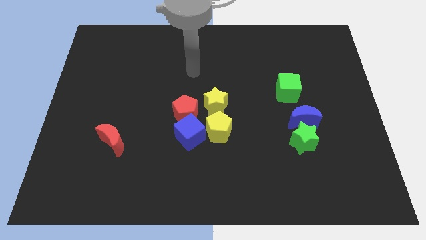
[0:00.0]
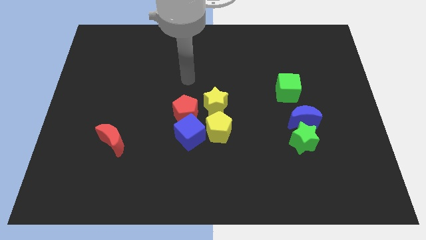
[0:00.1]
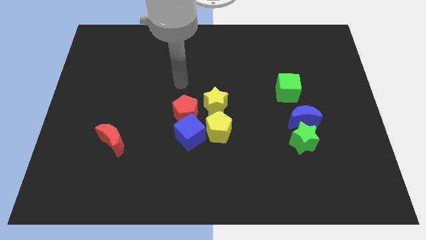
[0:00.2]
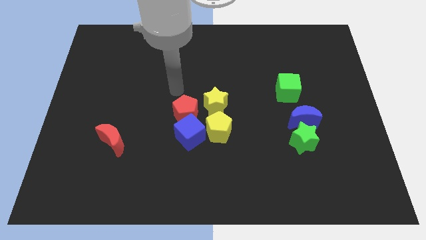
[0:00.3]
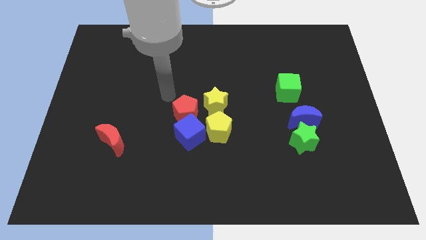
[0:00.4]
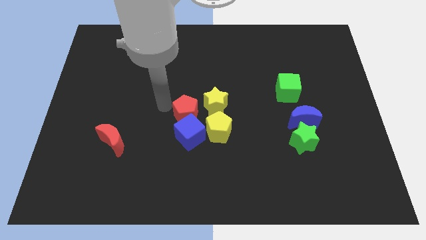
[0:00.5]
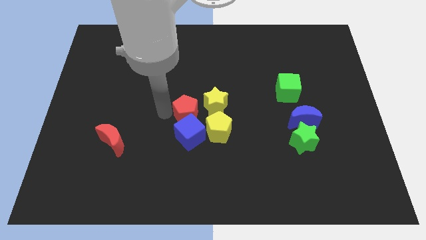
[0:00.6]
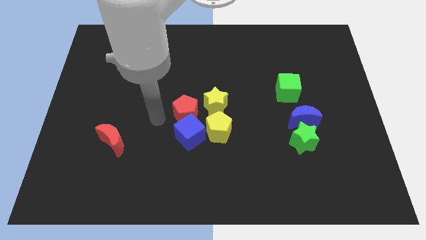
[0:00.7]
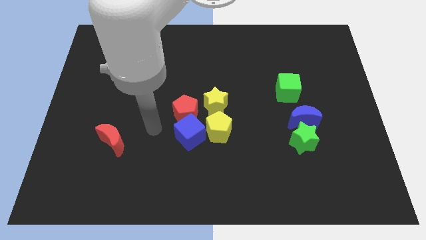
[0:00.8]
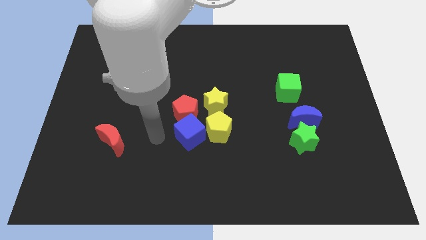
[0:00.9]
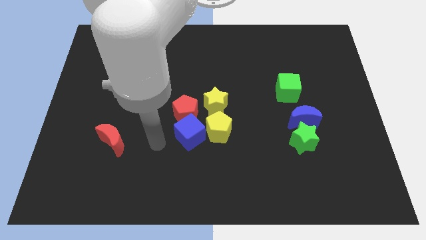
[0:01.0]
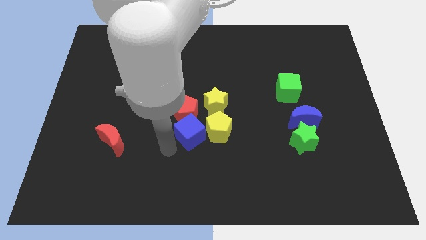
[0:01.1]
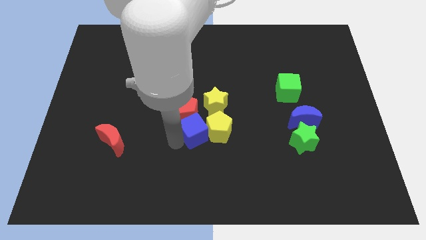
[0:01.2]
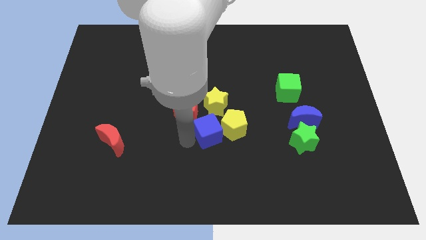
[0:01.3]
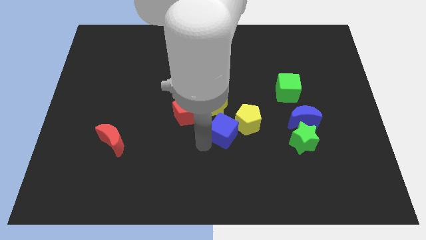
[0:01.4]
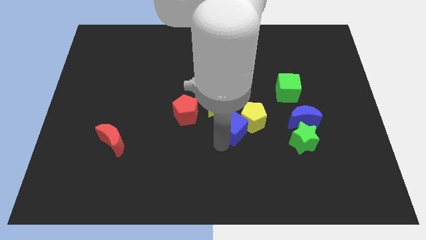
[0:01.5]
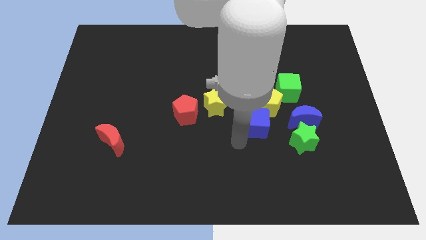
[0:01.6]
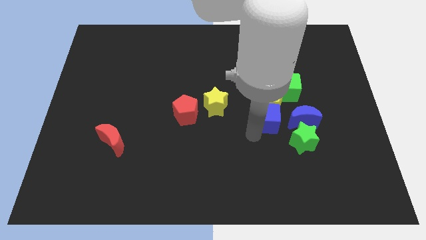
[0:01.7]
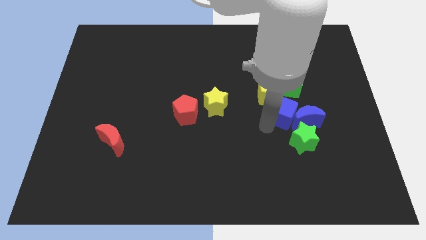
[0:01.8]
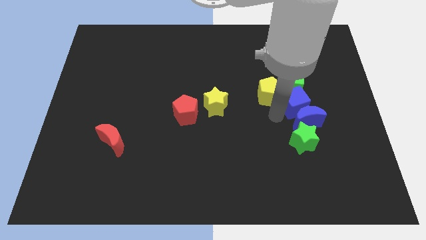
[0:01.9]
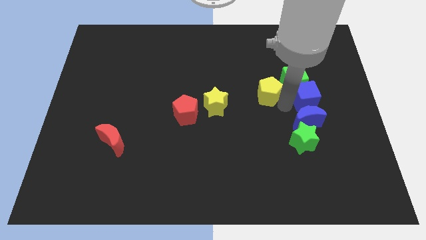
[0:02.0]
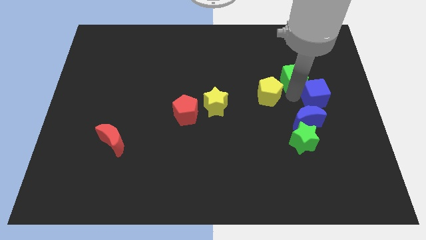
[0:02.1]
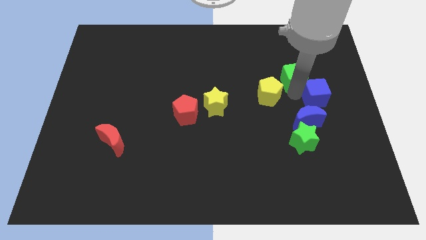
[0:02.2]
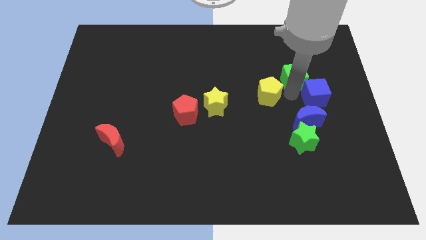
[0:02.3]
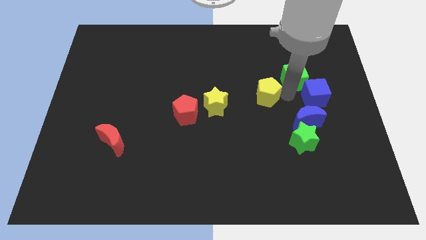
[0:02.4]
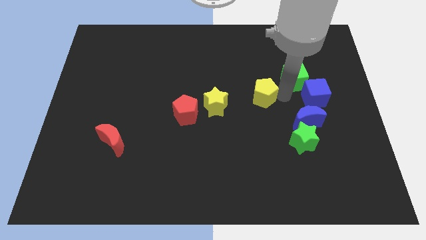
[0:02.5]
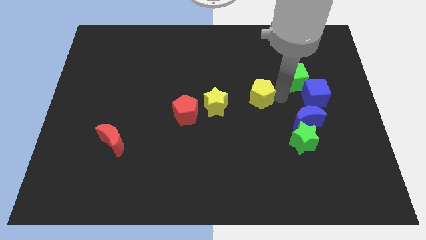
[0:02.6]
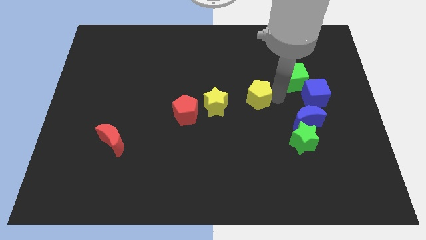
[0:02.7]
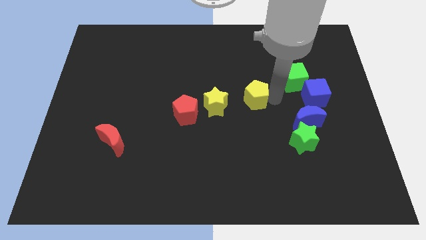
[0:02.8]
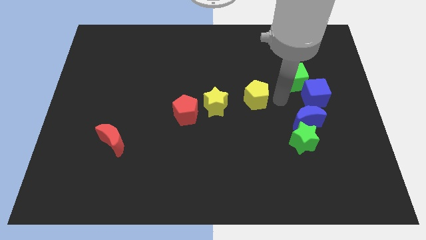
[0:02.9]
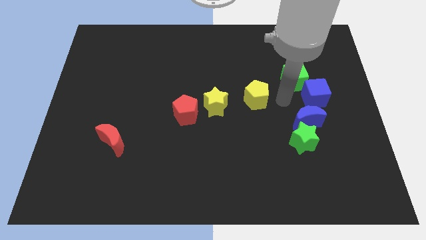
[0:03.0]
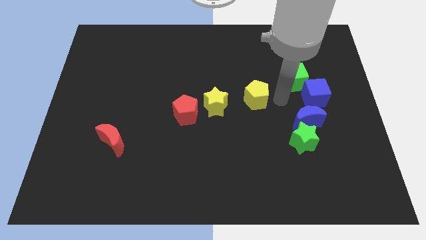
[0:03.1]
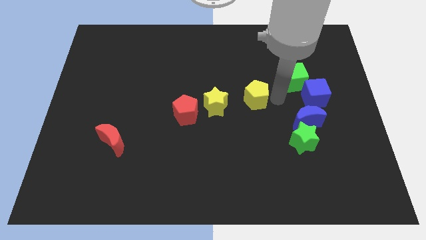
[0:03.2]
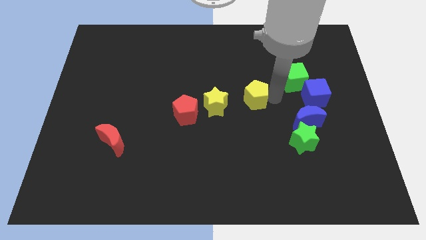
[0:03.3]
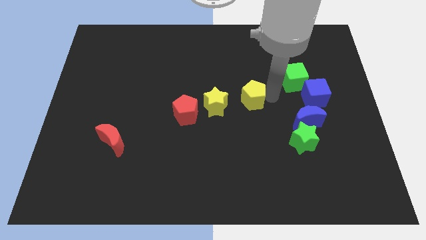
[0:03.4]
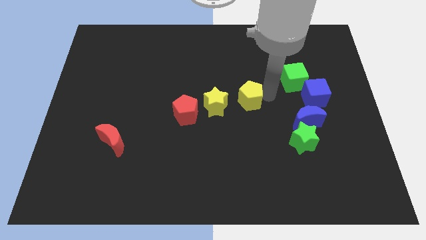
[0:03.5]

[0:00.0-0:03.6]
slightly slide the yellow pentagon up

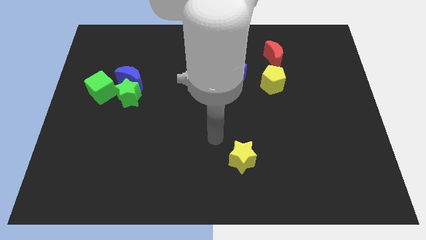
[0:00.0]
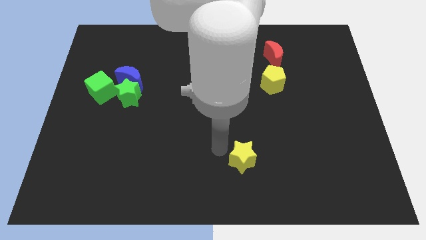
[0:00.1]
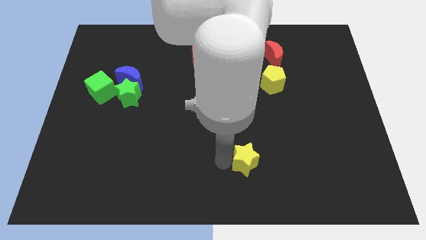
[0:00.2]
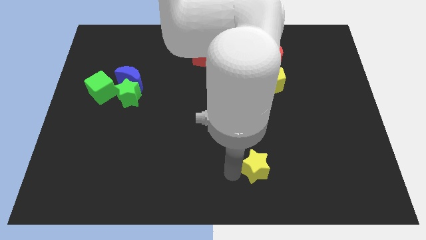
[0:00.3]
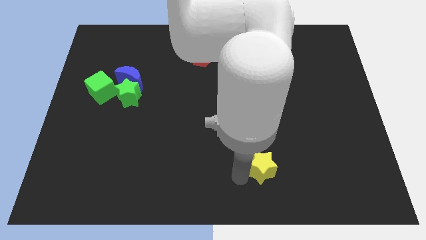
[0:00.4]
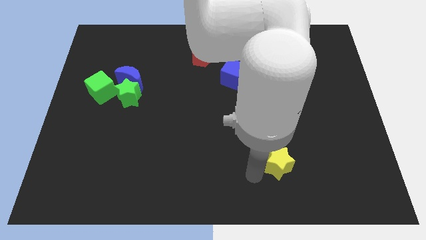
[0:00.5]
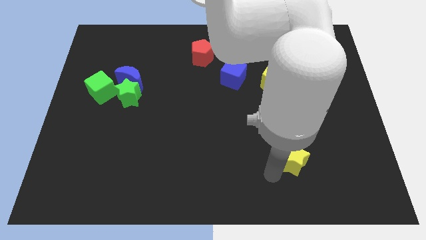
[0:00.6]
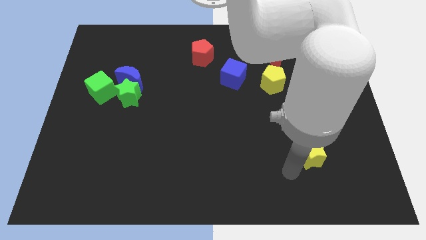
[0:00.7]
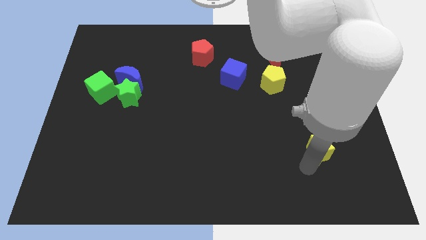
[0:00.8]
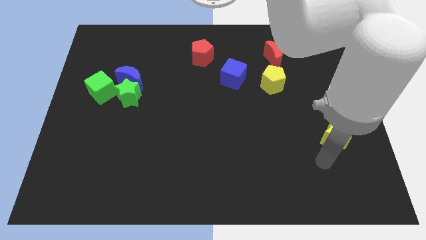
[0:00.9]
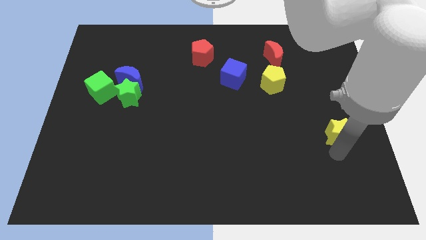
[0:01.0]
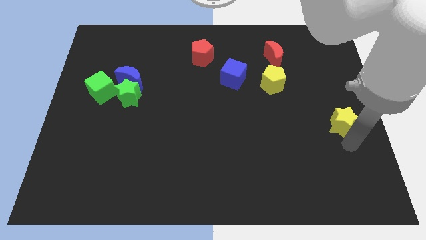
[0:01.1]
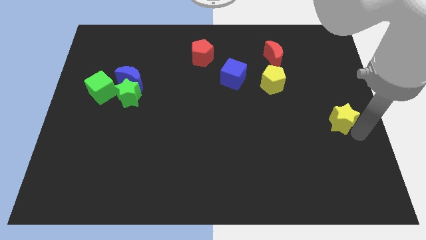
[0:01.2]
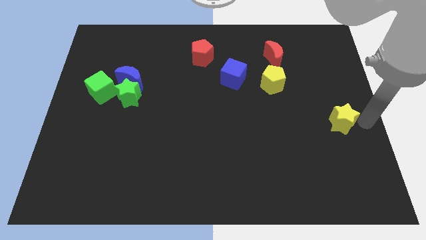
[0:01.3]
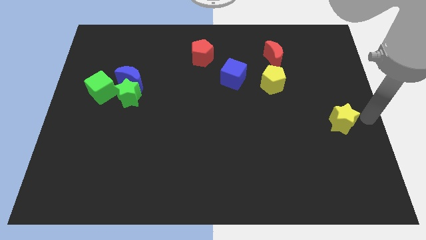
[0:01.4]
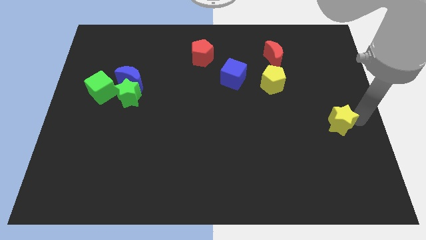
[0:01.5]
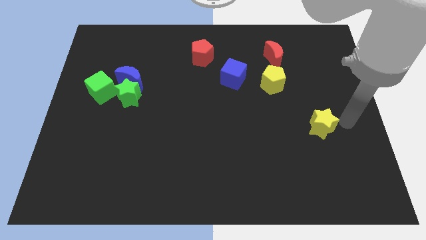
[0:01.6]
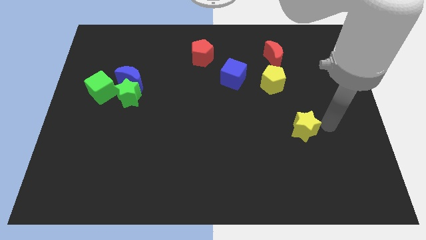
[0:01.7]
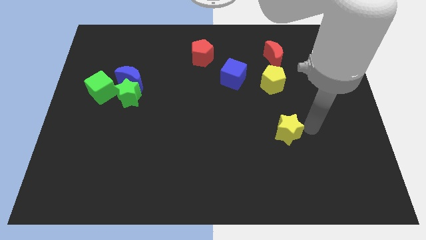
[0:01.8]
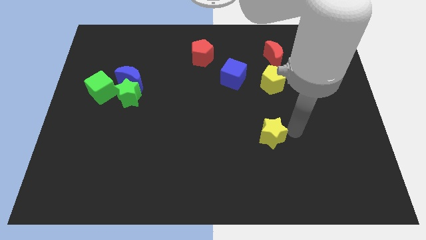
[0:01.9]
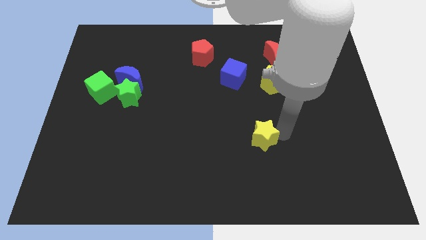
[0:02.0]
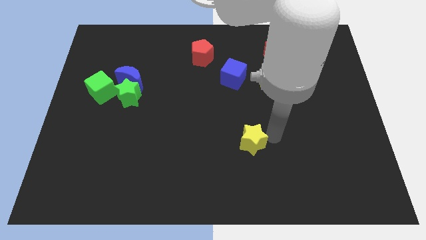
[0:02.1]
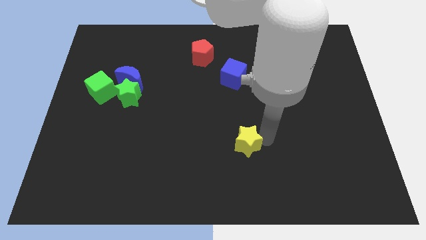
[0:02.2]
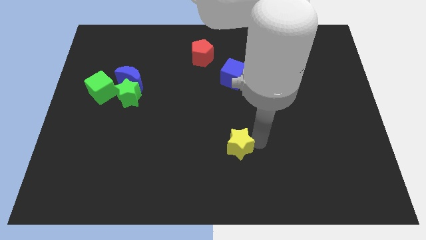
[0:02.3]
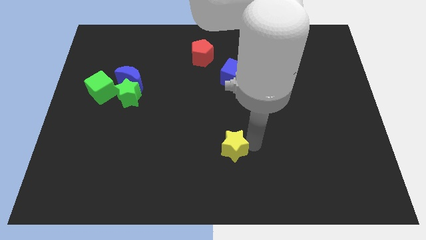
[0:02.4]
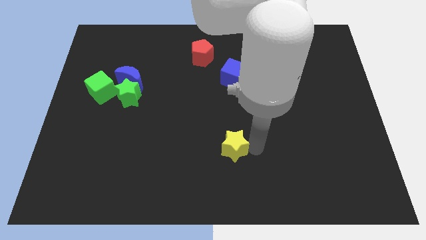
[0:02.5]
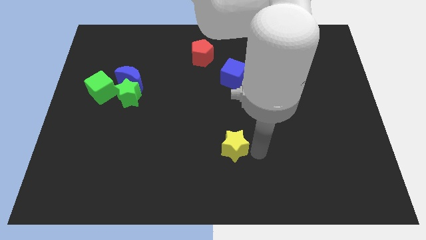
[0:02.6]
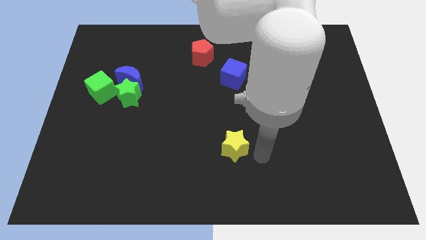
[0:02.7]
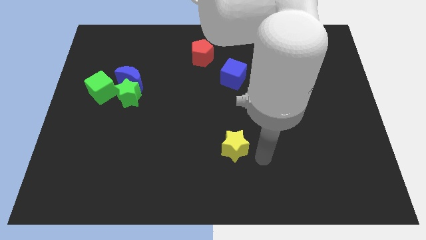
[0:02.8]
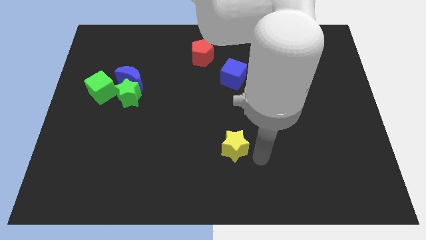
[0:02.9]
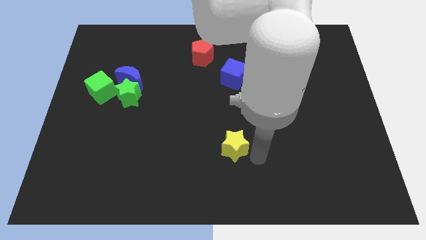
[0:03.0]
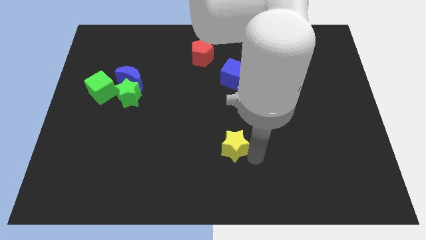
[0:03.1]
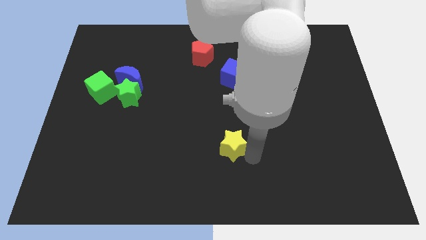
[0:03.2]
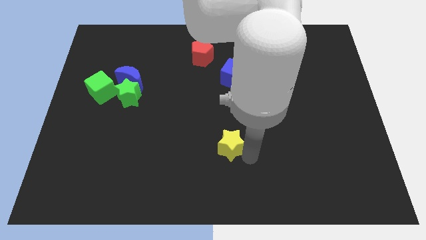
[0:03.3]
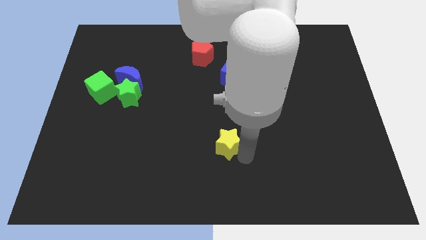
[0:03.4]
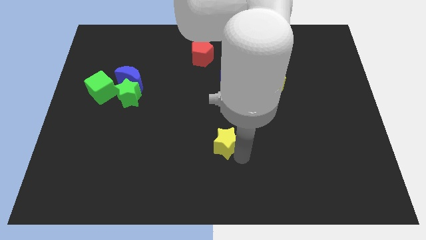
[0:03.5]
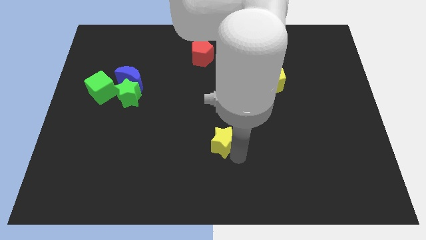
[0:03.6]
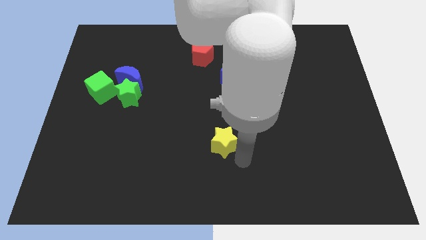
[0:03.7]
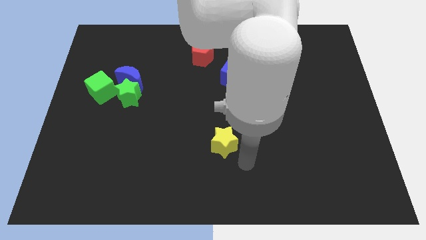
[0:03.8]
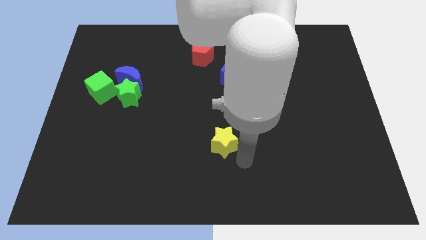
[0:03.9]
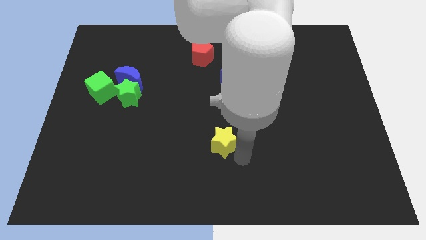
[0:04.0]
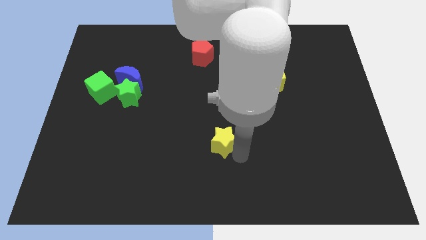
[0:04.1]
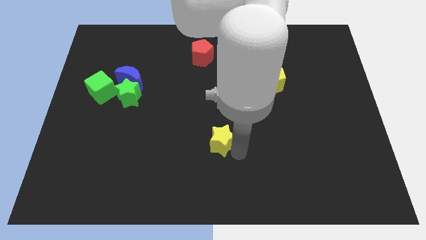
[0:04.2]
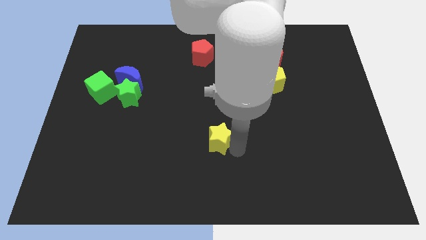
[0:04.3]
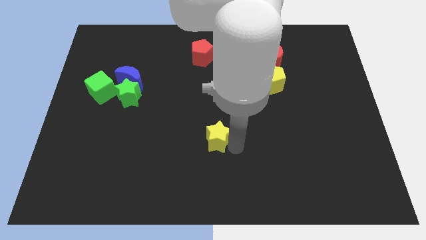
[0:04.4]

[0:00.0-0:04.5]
slightly slide the yellow star up and then to the left

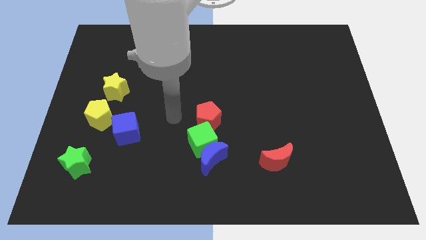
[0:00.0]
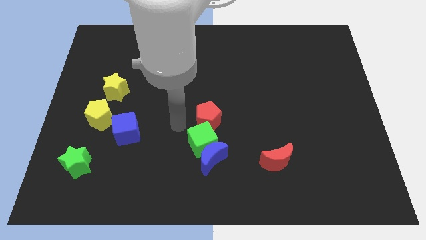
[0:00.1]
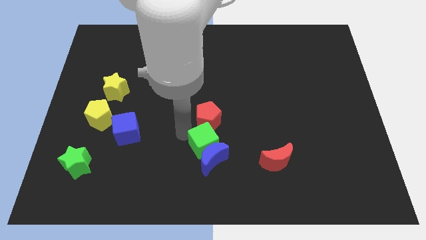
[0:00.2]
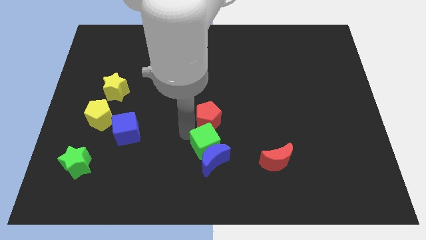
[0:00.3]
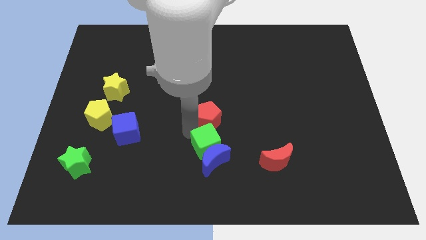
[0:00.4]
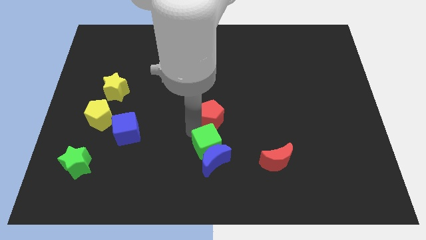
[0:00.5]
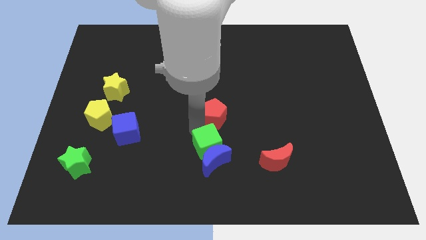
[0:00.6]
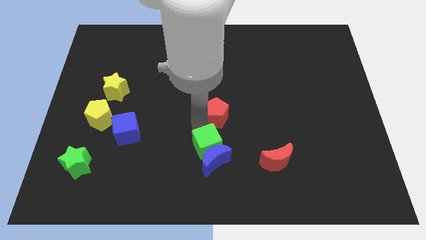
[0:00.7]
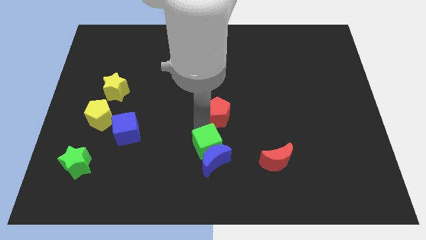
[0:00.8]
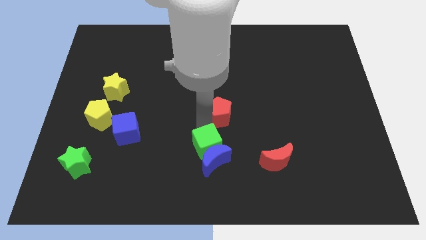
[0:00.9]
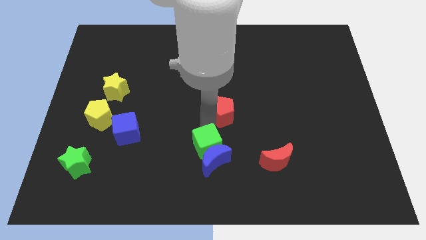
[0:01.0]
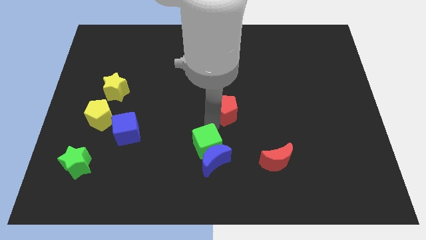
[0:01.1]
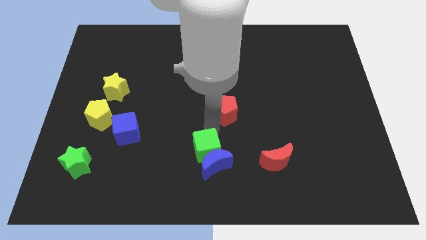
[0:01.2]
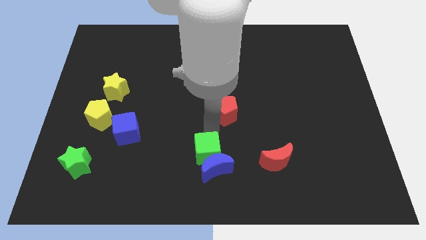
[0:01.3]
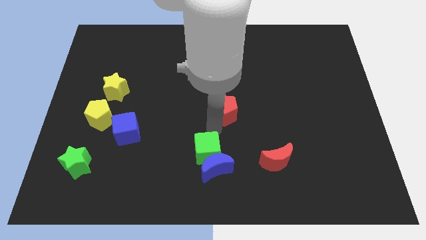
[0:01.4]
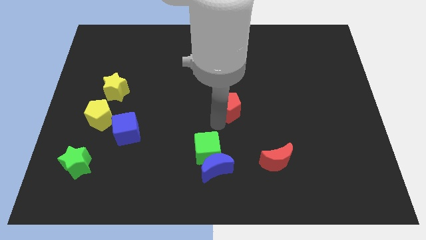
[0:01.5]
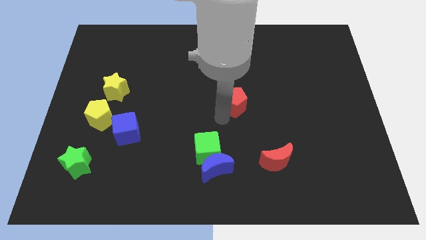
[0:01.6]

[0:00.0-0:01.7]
slightly slide the red pentagon upwards and to the right
